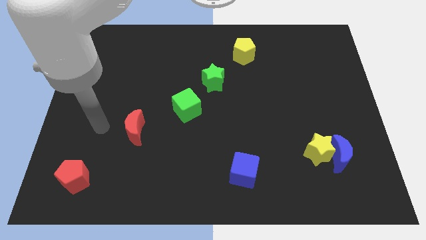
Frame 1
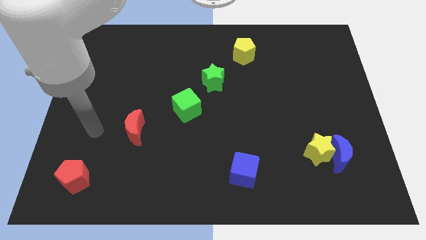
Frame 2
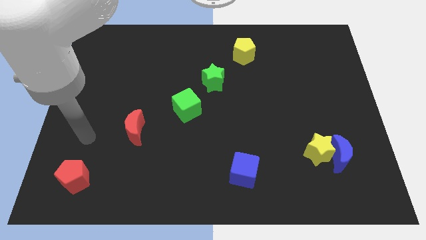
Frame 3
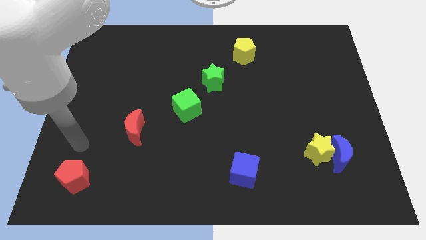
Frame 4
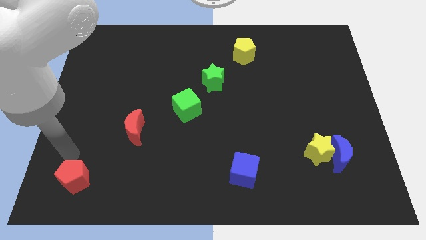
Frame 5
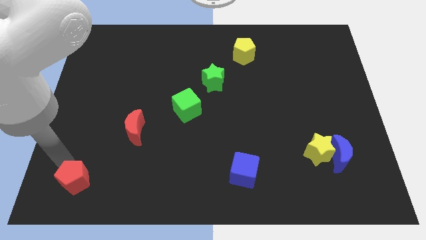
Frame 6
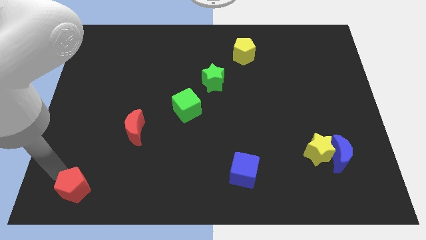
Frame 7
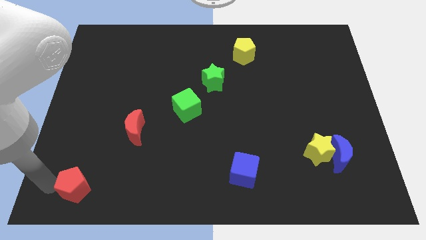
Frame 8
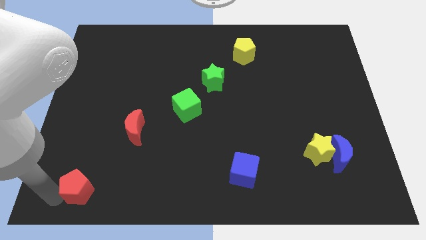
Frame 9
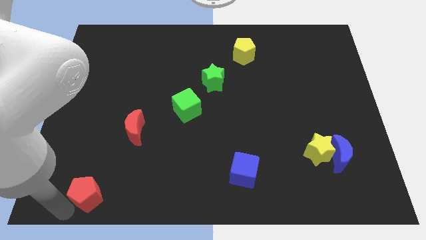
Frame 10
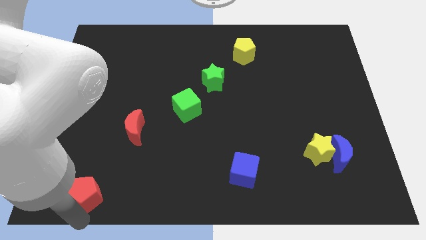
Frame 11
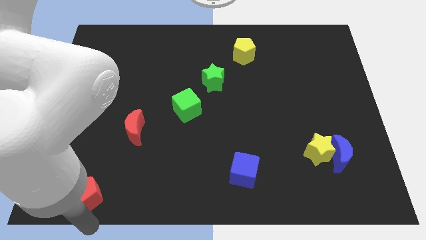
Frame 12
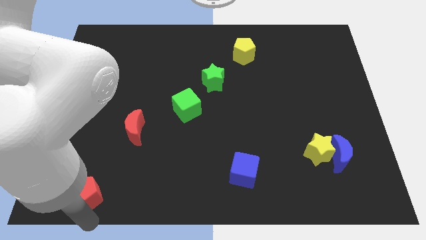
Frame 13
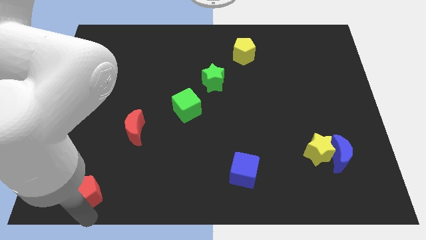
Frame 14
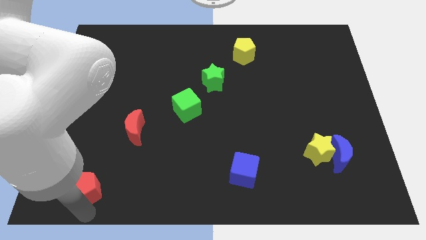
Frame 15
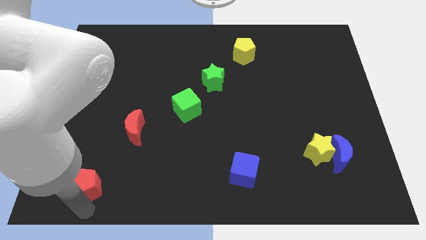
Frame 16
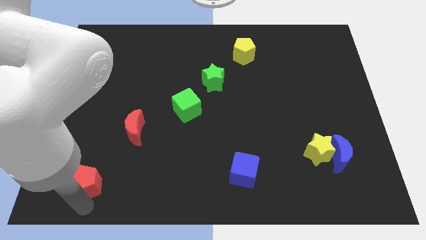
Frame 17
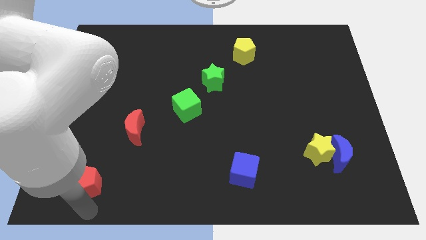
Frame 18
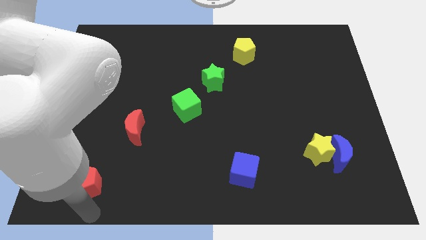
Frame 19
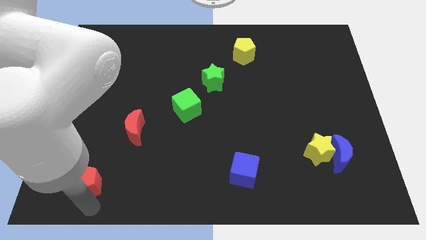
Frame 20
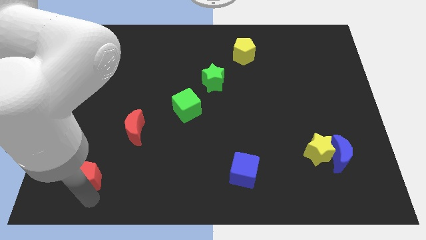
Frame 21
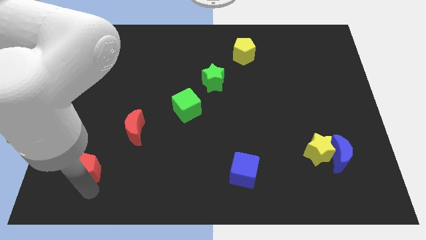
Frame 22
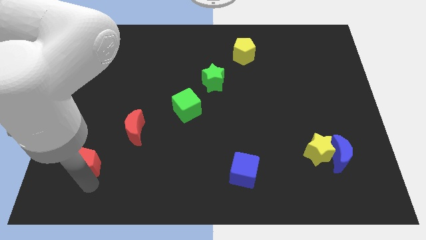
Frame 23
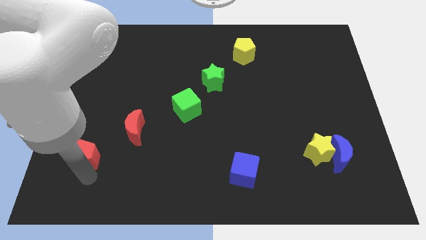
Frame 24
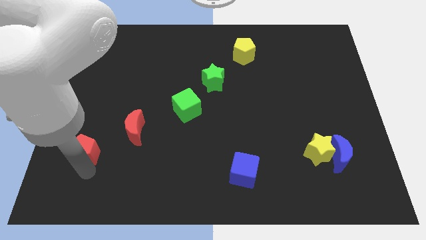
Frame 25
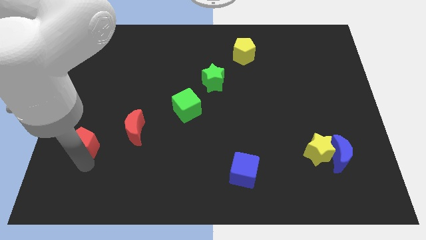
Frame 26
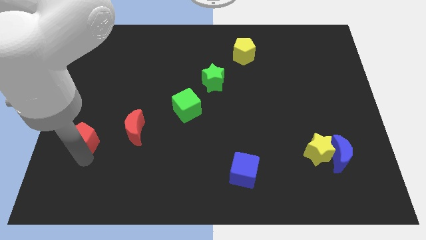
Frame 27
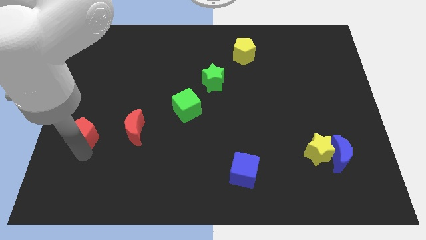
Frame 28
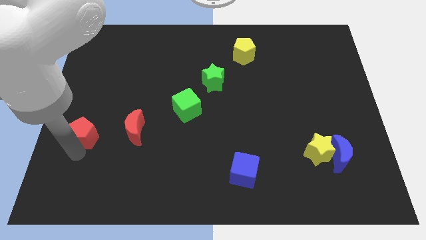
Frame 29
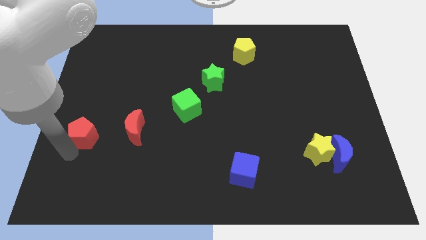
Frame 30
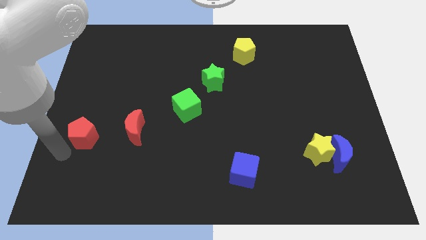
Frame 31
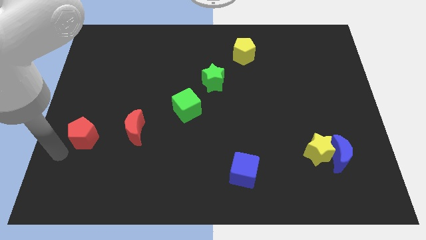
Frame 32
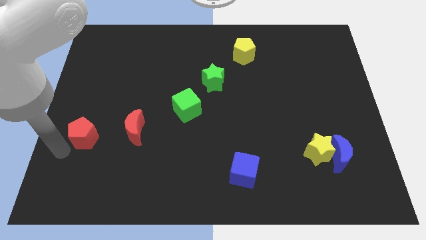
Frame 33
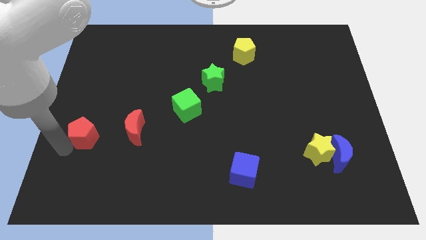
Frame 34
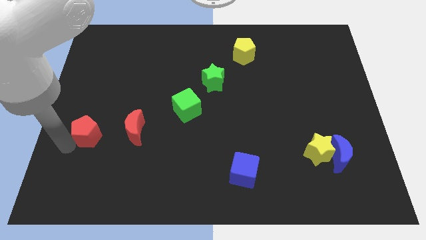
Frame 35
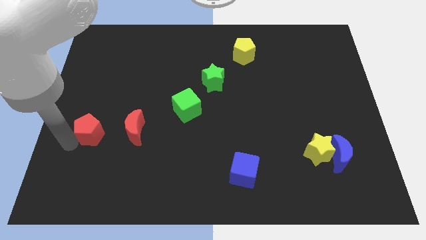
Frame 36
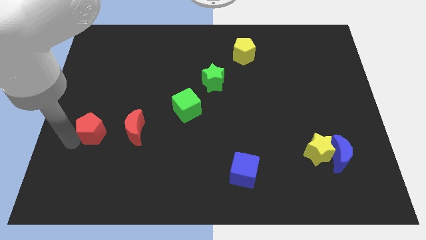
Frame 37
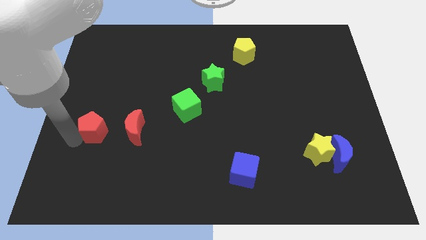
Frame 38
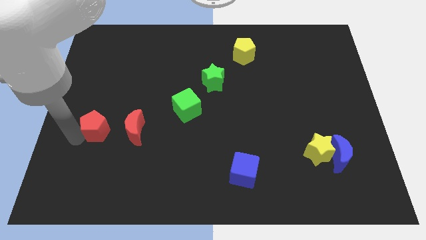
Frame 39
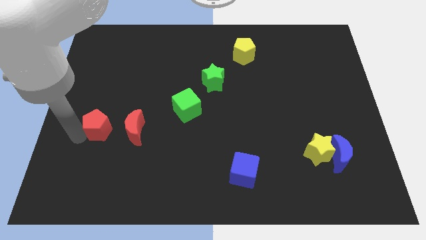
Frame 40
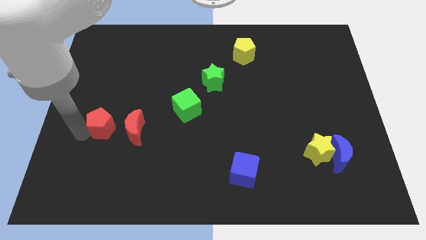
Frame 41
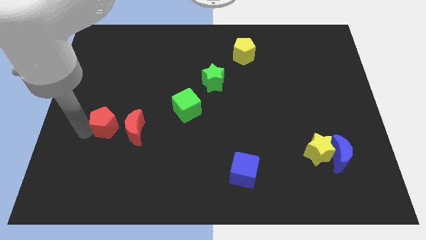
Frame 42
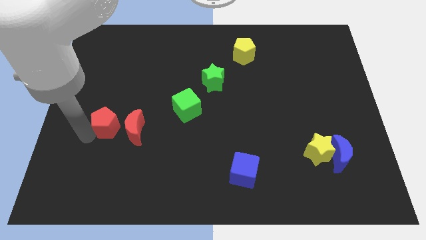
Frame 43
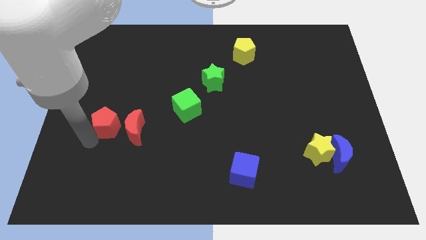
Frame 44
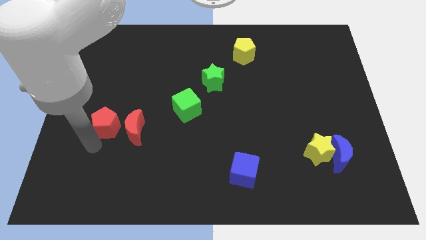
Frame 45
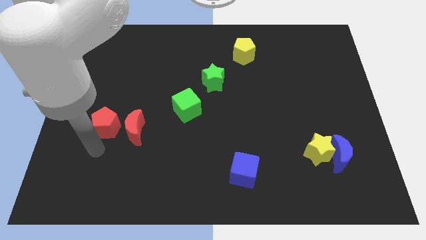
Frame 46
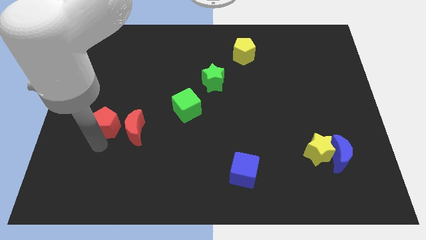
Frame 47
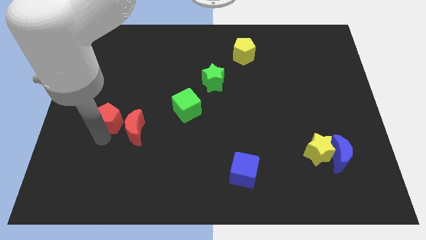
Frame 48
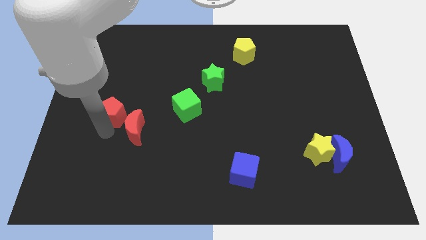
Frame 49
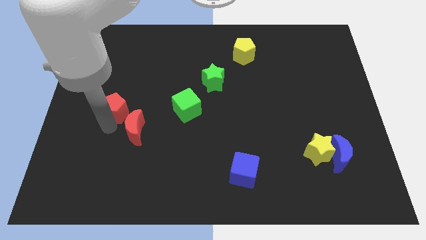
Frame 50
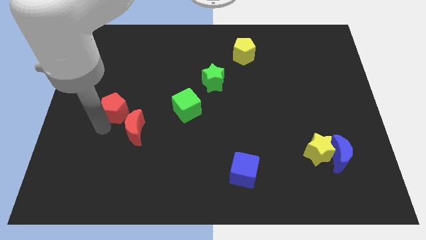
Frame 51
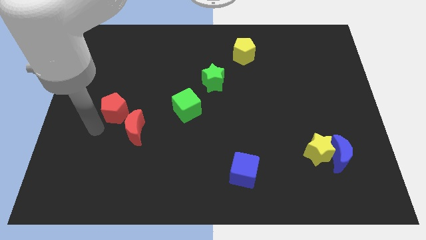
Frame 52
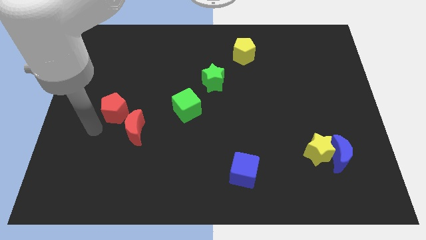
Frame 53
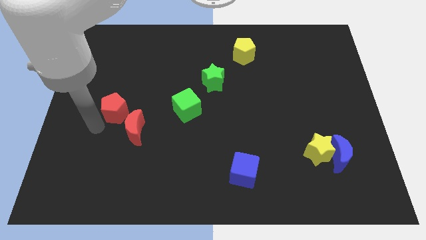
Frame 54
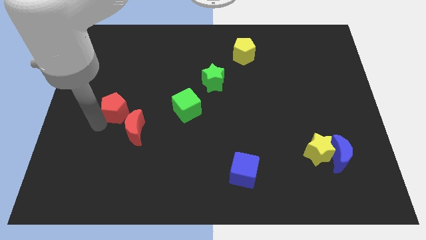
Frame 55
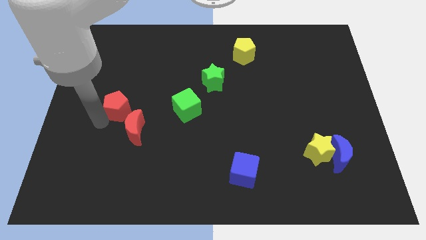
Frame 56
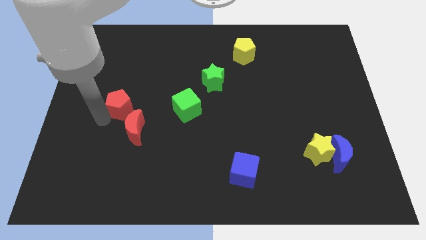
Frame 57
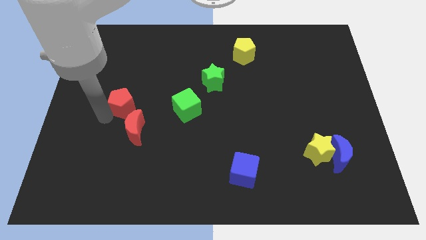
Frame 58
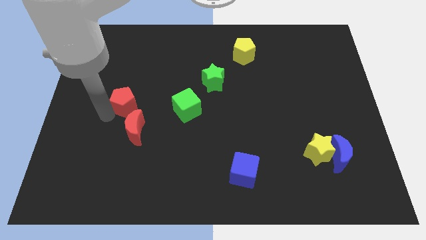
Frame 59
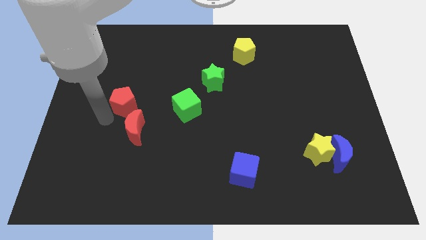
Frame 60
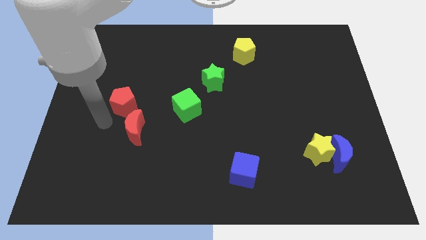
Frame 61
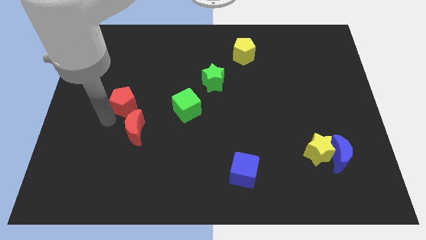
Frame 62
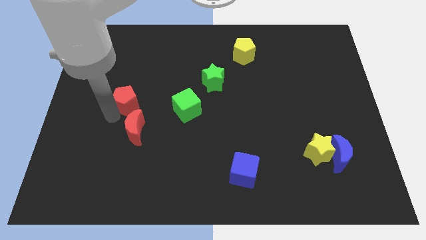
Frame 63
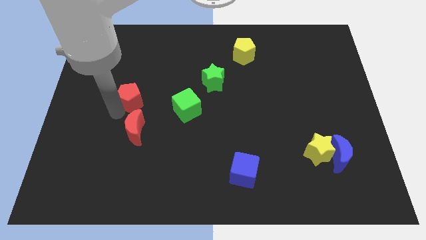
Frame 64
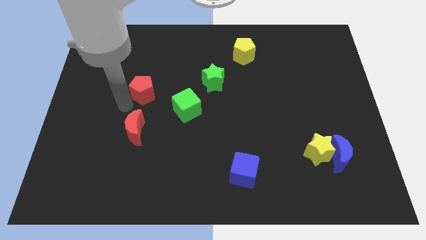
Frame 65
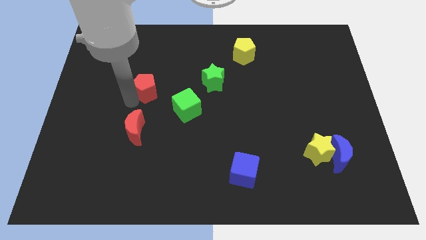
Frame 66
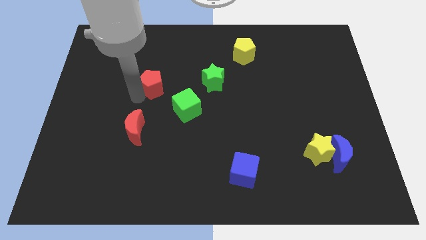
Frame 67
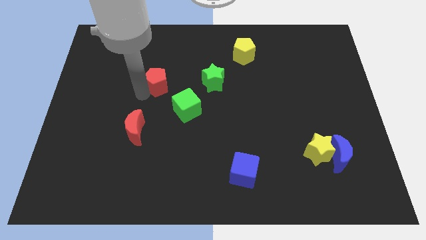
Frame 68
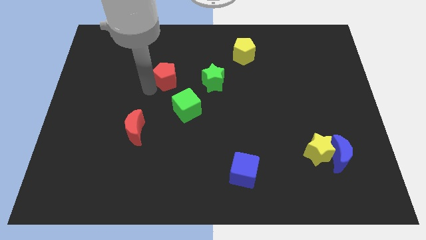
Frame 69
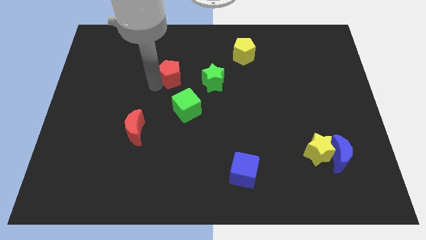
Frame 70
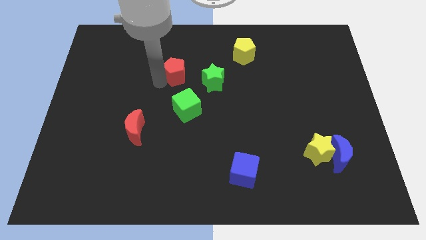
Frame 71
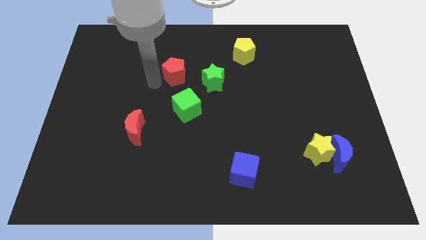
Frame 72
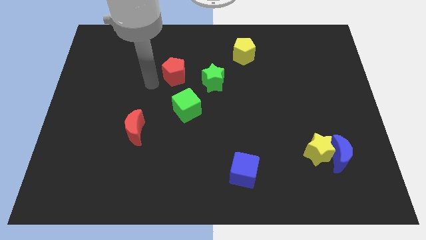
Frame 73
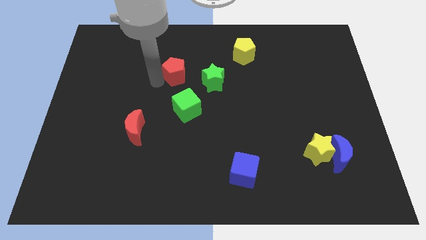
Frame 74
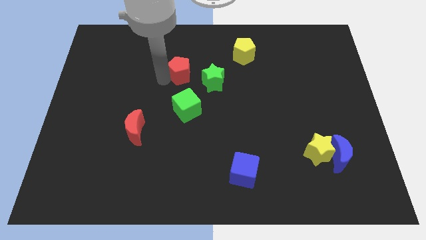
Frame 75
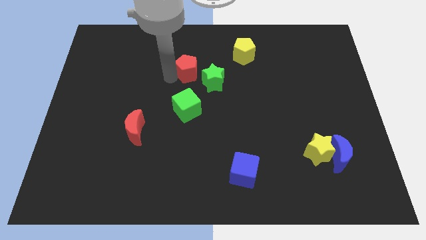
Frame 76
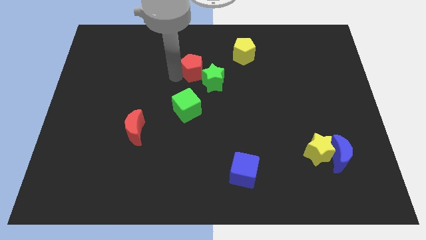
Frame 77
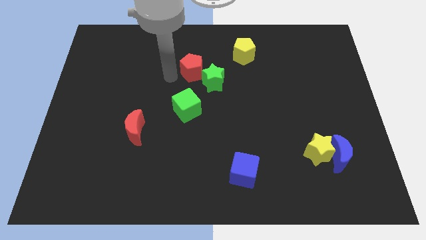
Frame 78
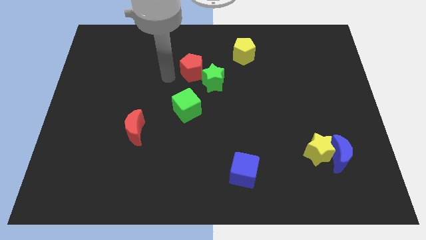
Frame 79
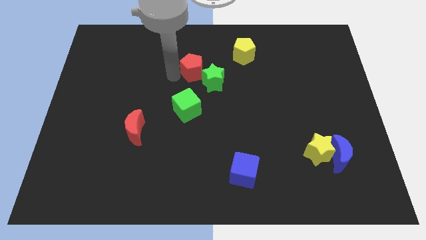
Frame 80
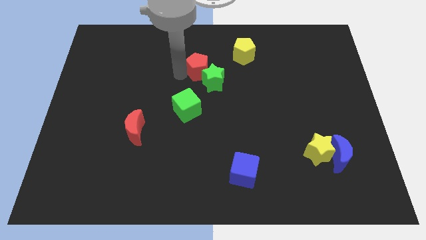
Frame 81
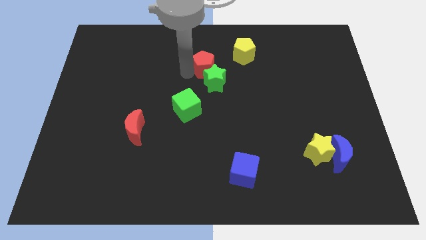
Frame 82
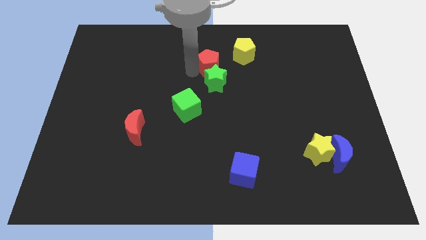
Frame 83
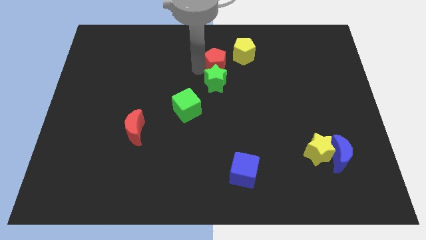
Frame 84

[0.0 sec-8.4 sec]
push the red pentagon to the top right of the green star
